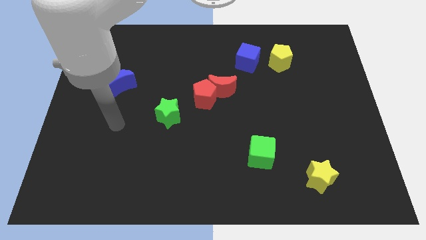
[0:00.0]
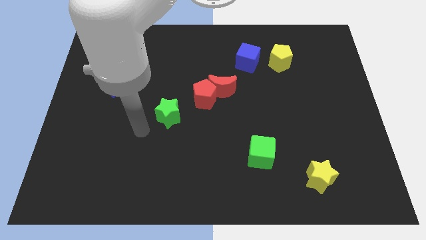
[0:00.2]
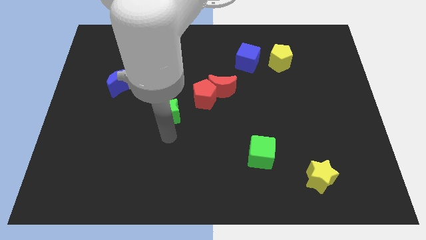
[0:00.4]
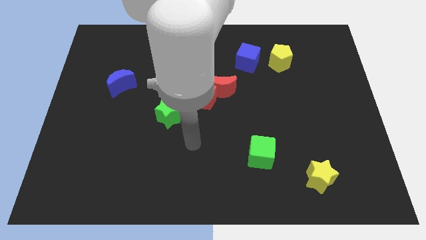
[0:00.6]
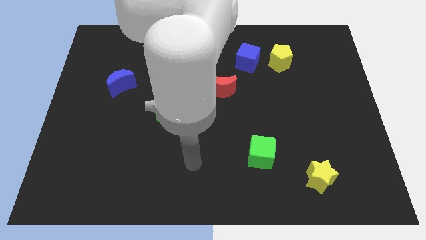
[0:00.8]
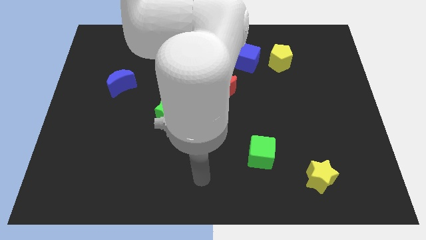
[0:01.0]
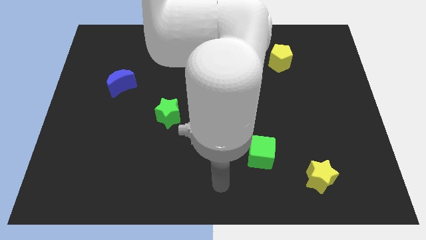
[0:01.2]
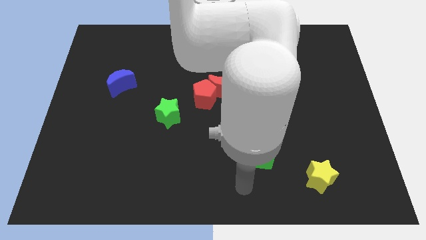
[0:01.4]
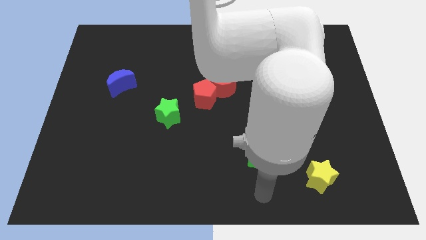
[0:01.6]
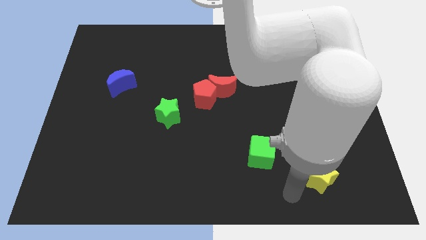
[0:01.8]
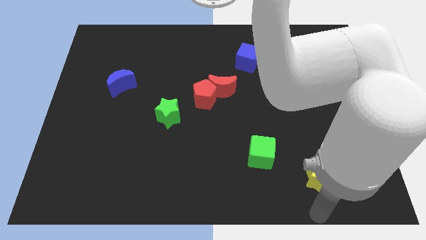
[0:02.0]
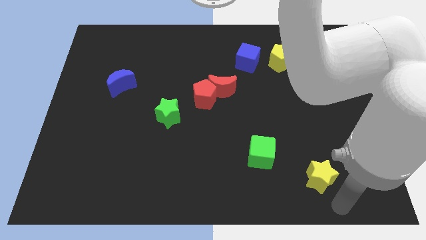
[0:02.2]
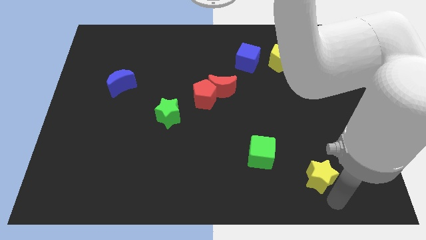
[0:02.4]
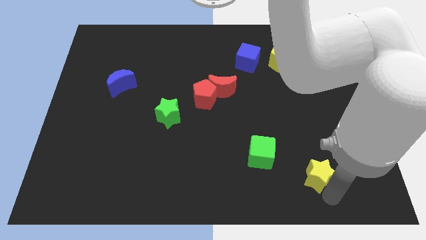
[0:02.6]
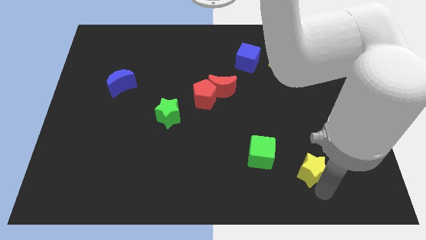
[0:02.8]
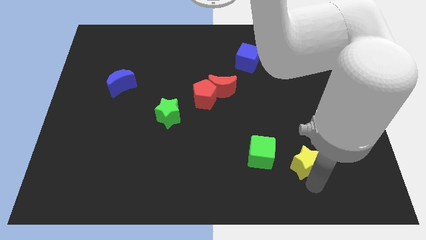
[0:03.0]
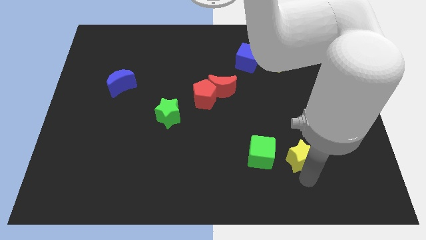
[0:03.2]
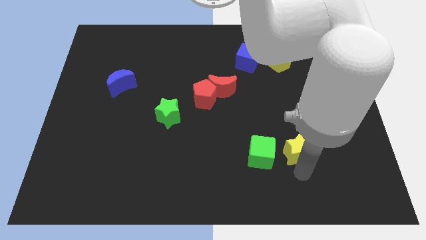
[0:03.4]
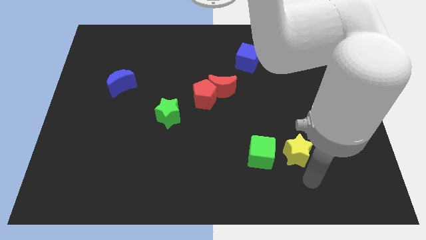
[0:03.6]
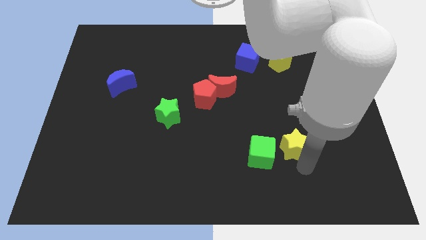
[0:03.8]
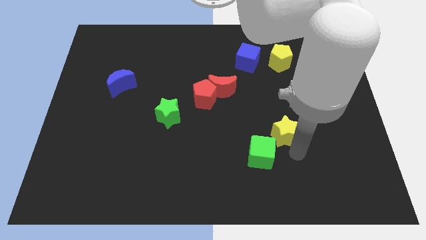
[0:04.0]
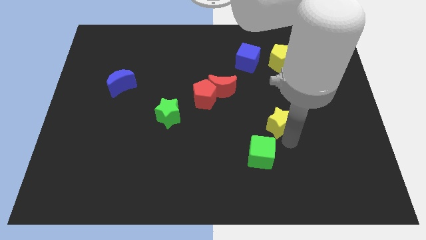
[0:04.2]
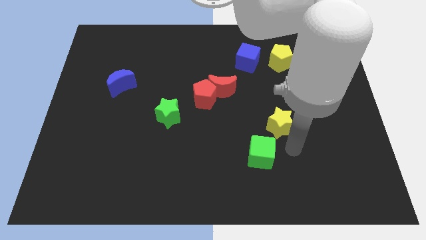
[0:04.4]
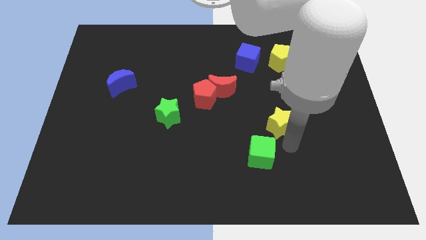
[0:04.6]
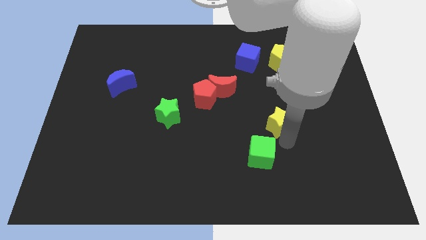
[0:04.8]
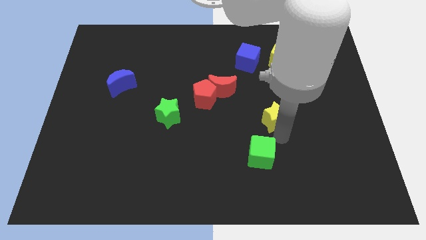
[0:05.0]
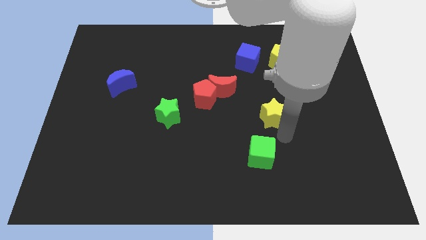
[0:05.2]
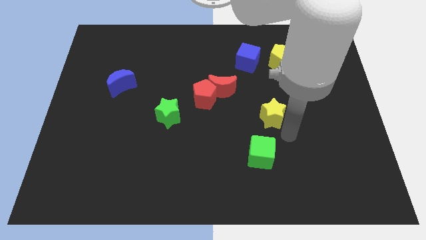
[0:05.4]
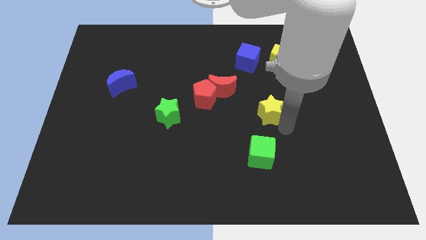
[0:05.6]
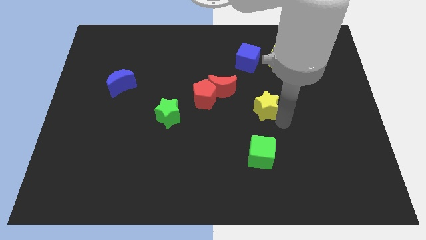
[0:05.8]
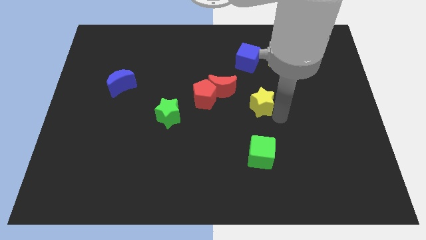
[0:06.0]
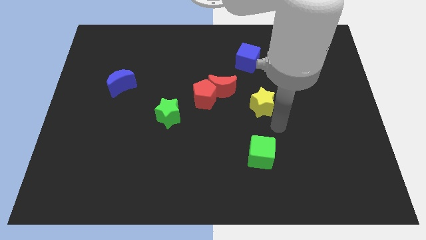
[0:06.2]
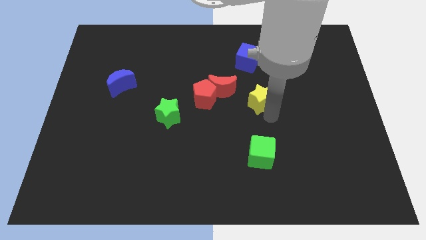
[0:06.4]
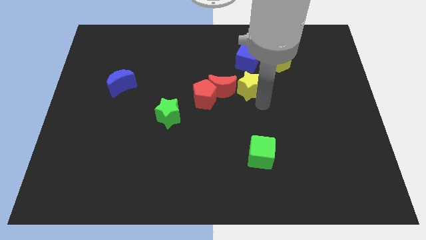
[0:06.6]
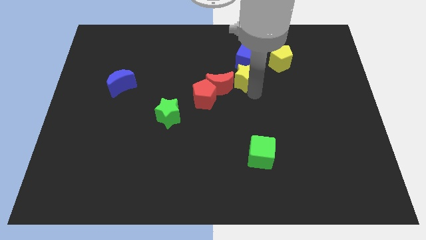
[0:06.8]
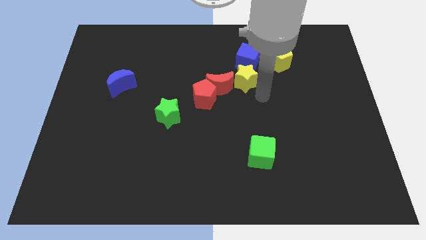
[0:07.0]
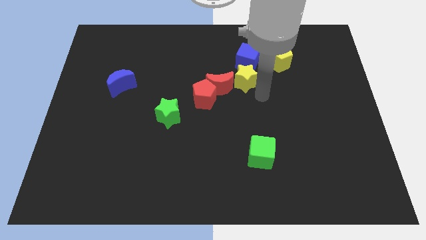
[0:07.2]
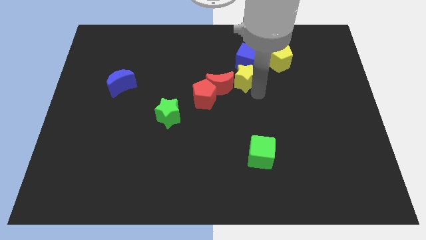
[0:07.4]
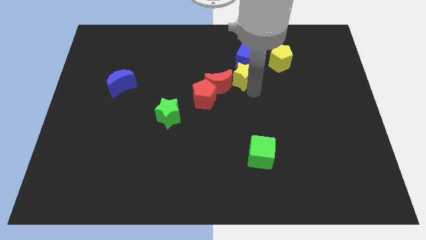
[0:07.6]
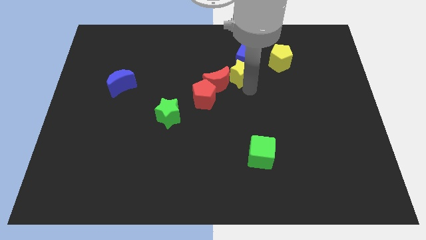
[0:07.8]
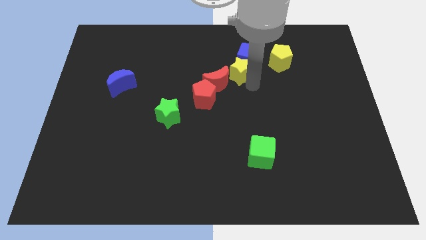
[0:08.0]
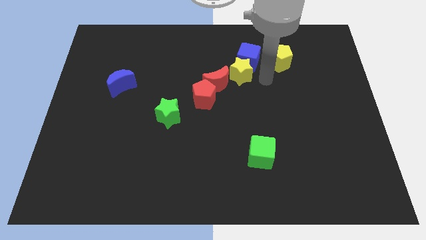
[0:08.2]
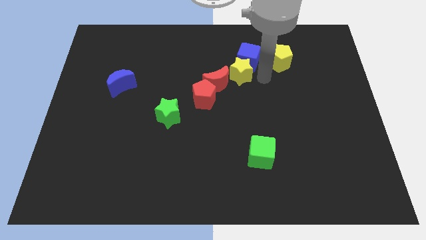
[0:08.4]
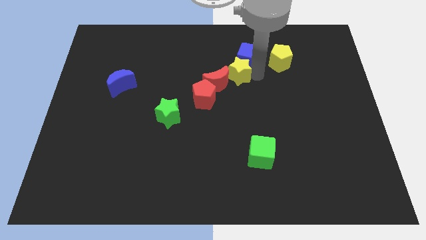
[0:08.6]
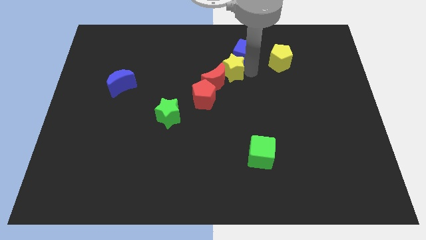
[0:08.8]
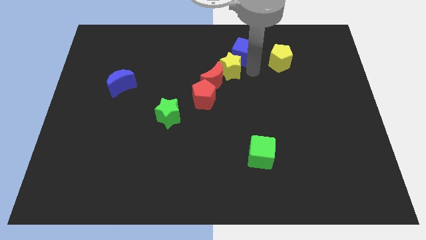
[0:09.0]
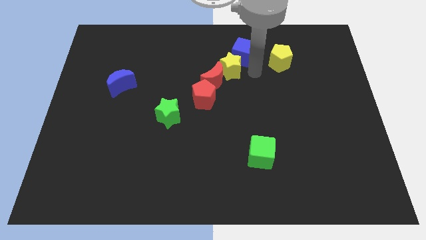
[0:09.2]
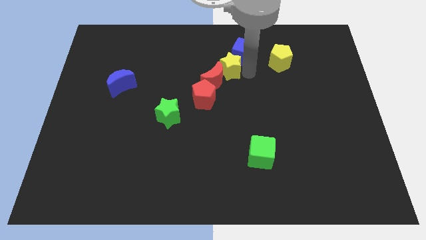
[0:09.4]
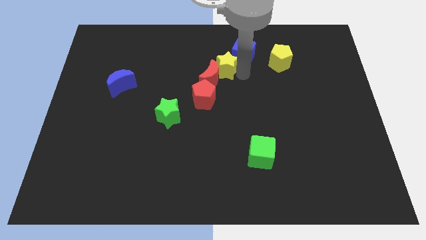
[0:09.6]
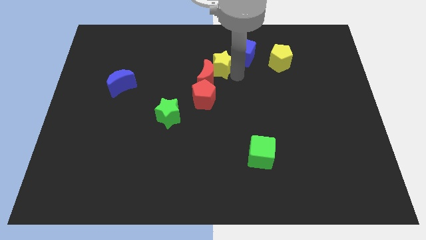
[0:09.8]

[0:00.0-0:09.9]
put the yellow star to the top of the red pentagon

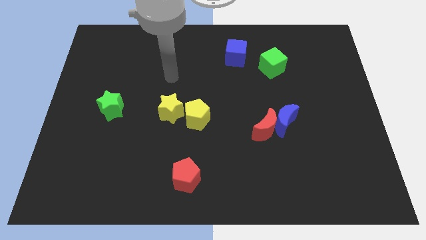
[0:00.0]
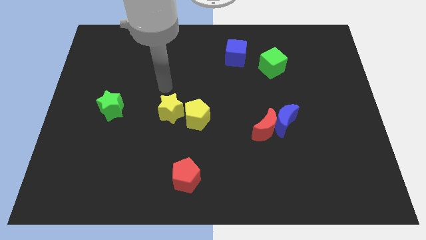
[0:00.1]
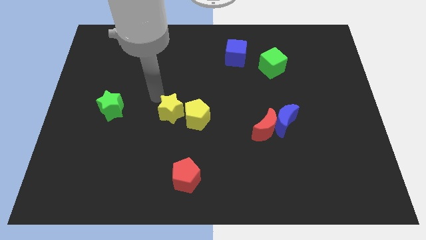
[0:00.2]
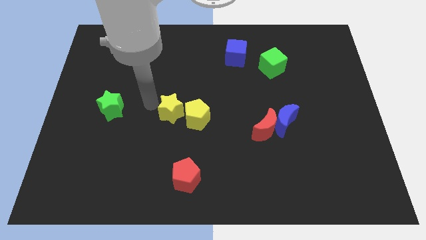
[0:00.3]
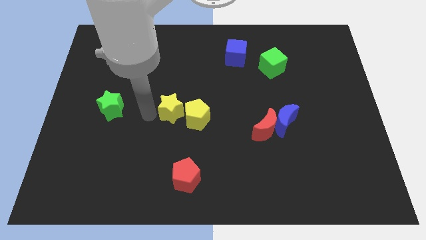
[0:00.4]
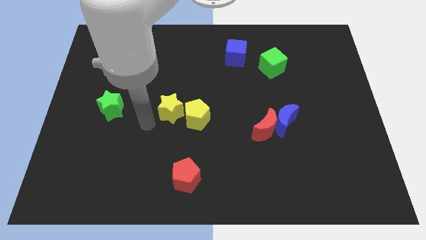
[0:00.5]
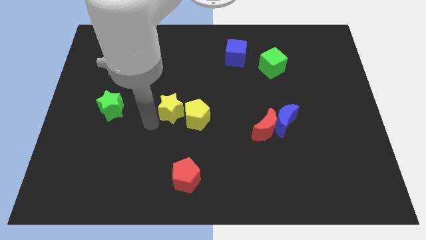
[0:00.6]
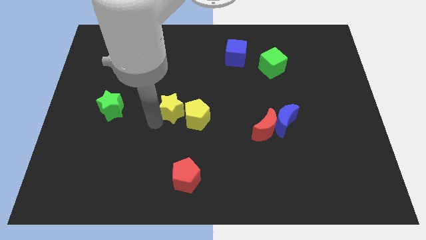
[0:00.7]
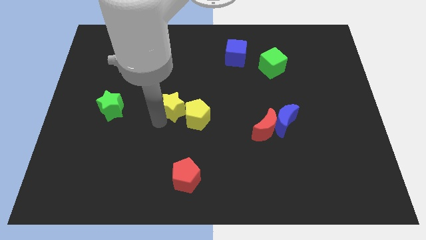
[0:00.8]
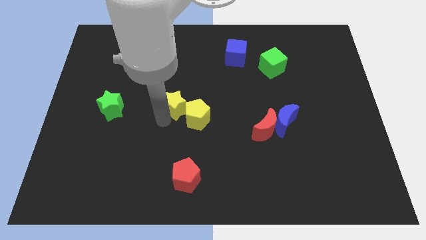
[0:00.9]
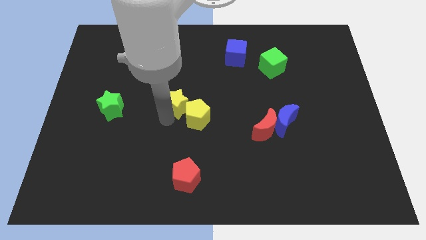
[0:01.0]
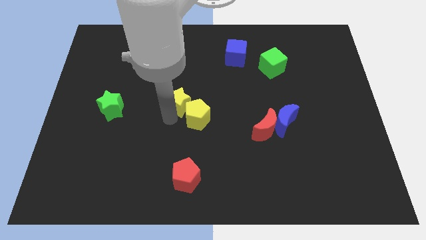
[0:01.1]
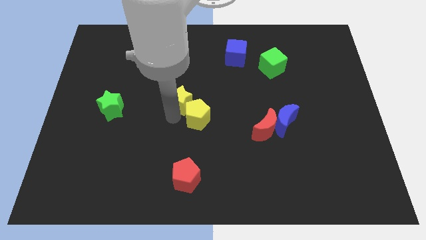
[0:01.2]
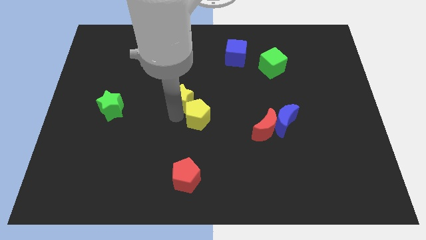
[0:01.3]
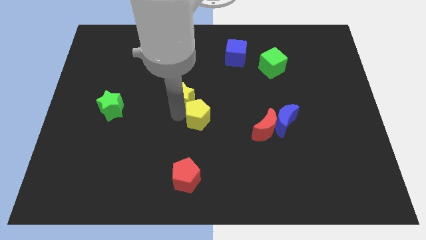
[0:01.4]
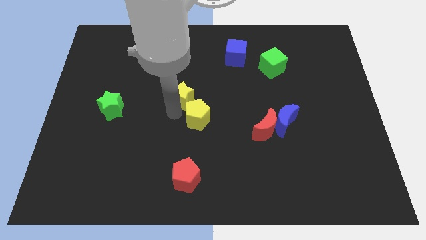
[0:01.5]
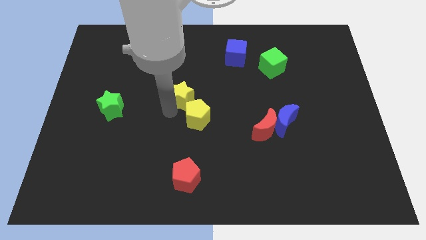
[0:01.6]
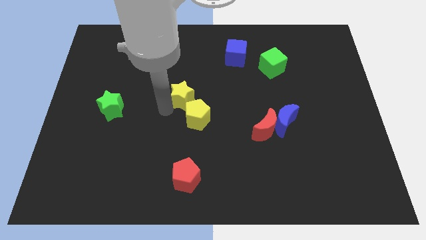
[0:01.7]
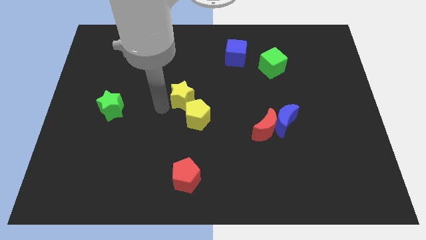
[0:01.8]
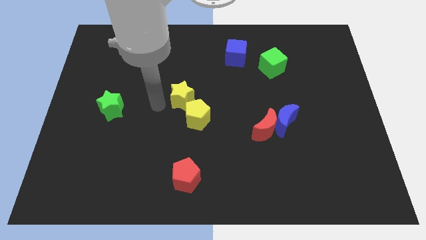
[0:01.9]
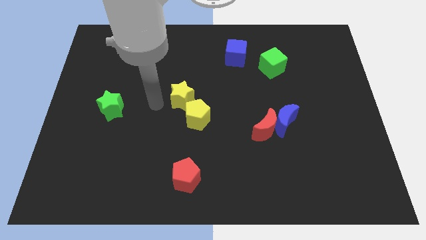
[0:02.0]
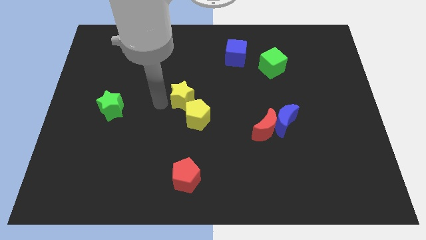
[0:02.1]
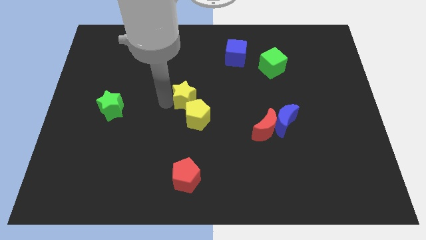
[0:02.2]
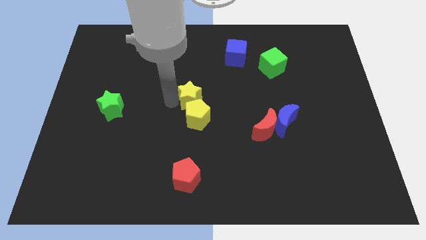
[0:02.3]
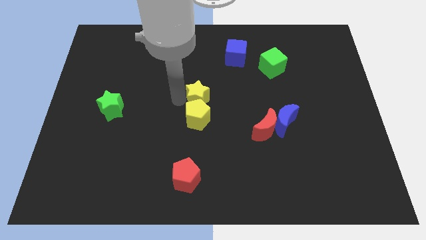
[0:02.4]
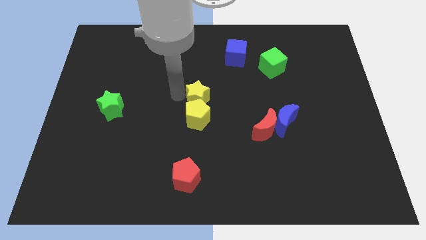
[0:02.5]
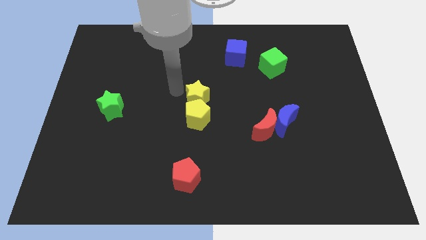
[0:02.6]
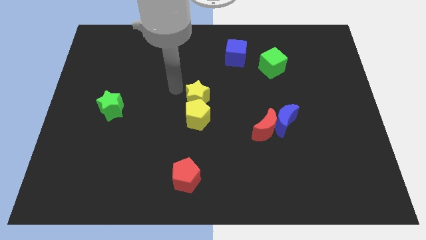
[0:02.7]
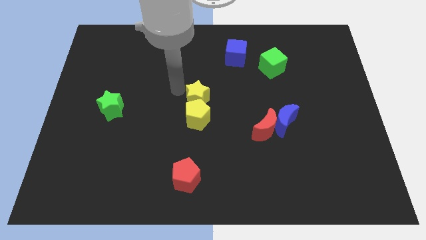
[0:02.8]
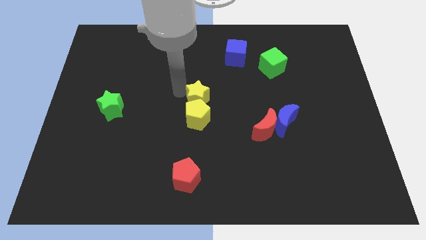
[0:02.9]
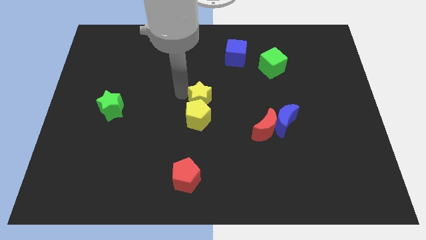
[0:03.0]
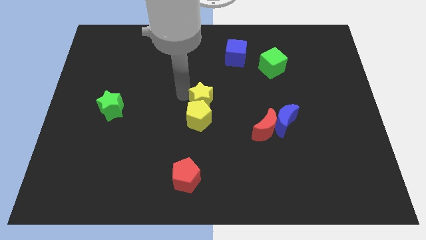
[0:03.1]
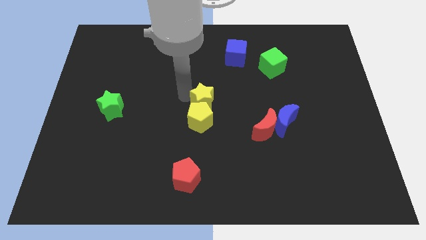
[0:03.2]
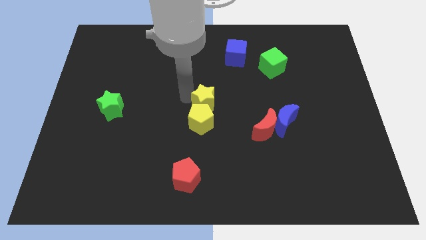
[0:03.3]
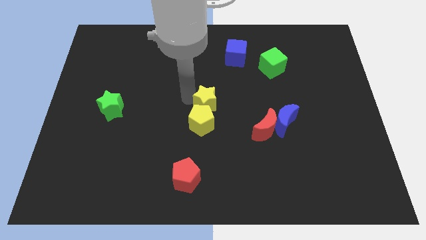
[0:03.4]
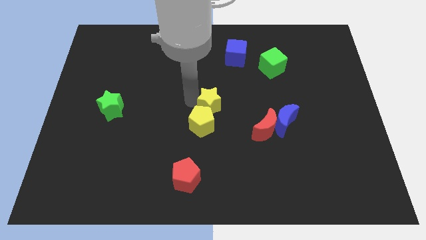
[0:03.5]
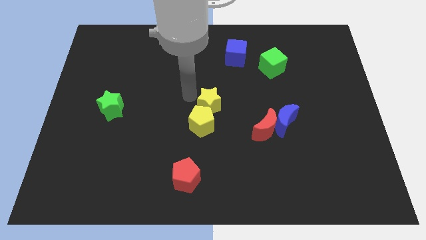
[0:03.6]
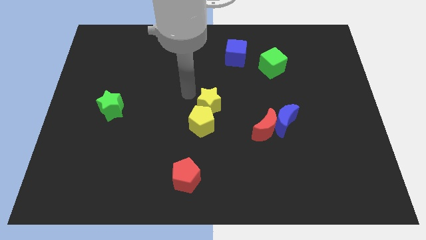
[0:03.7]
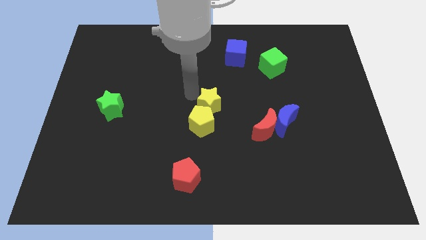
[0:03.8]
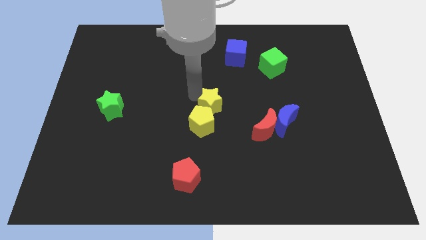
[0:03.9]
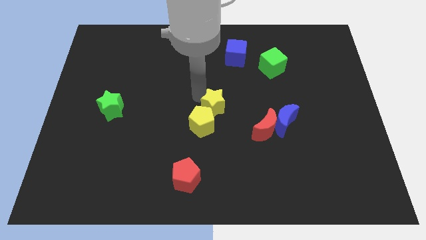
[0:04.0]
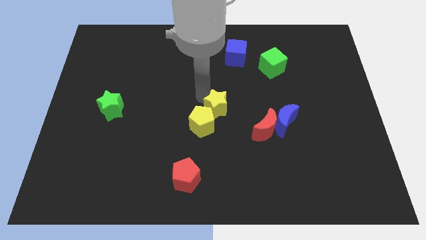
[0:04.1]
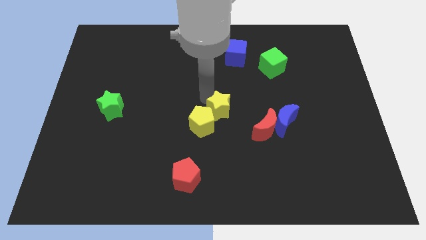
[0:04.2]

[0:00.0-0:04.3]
move the yellow star just right of the yellow pentagon
